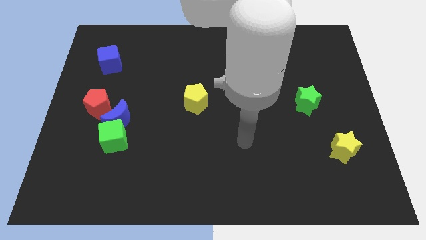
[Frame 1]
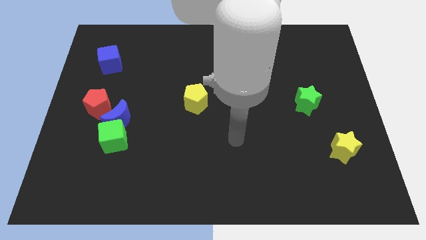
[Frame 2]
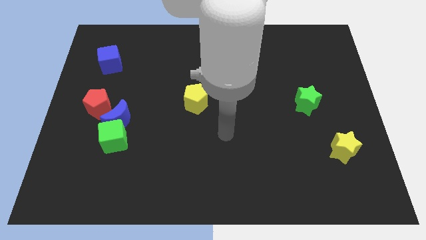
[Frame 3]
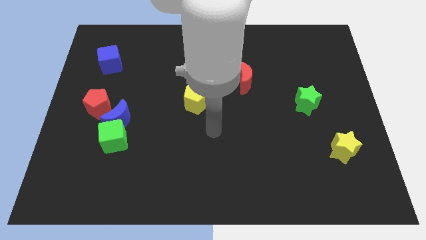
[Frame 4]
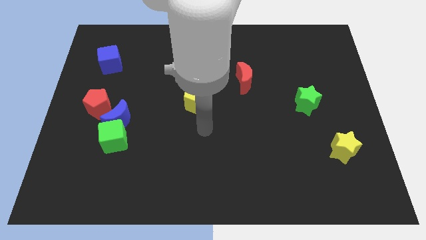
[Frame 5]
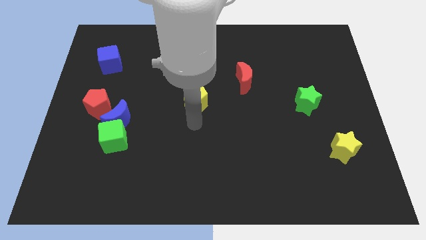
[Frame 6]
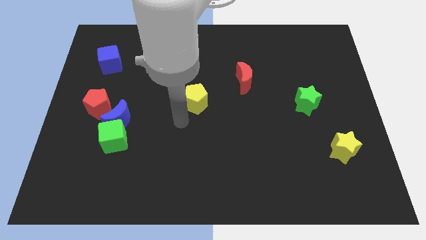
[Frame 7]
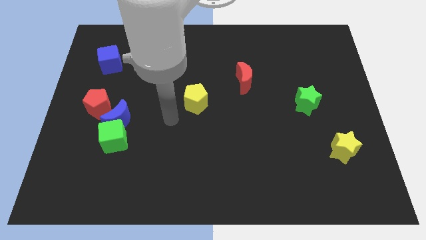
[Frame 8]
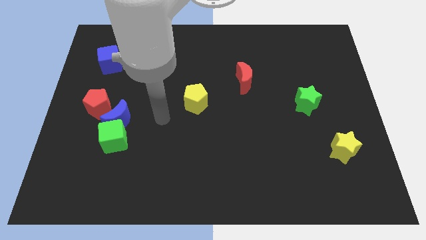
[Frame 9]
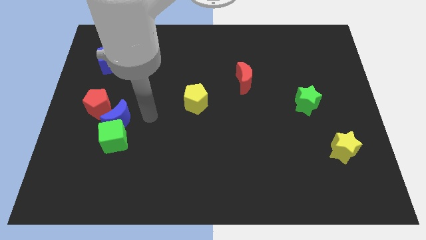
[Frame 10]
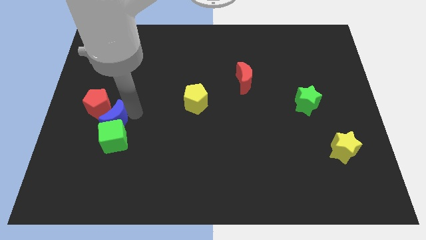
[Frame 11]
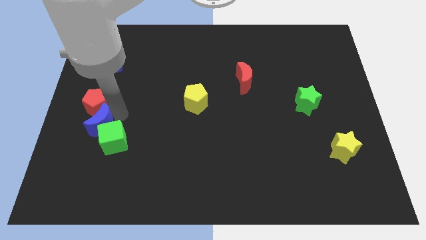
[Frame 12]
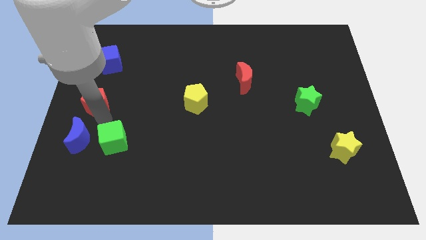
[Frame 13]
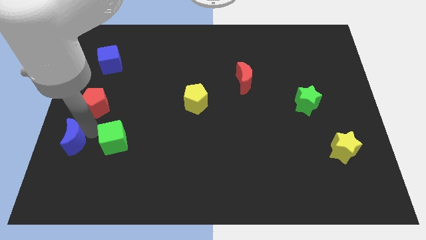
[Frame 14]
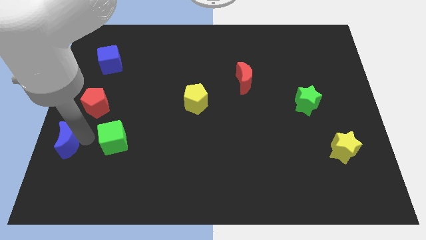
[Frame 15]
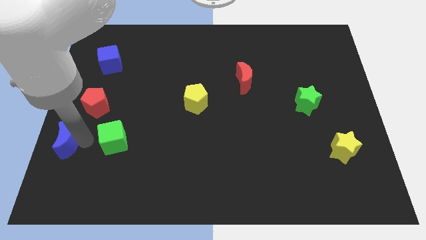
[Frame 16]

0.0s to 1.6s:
pull the green cube apart from the blue moon

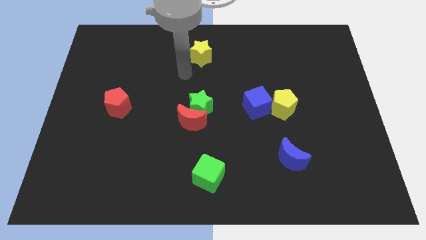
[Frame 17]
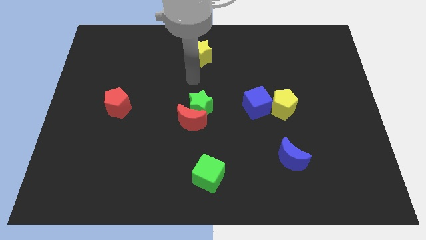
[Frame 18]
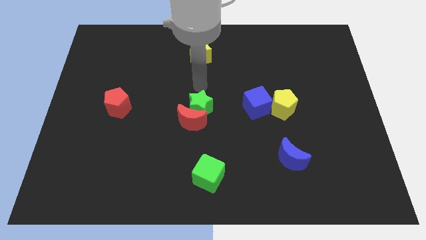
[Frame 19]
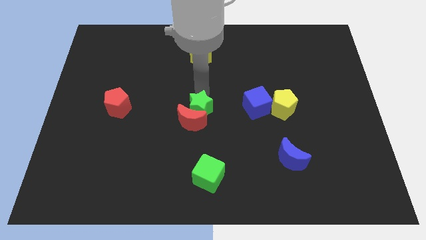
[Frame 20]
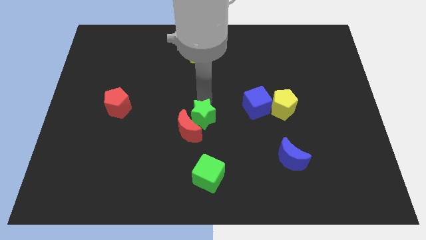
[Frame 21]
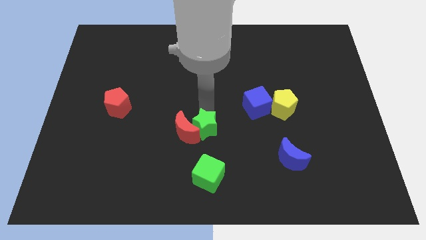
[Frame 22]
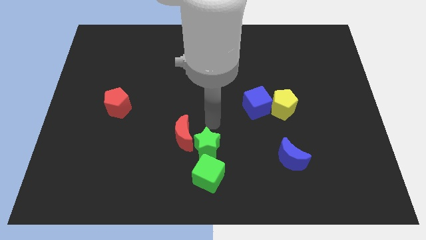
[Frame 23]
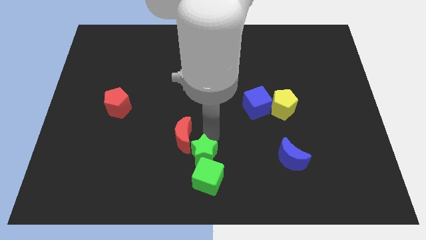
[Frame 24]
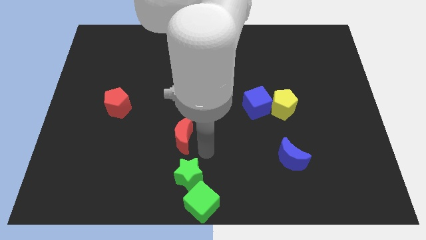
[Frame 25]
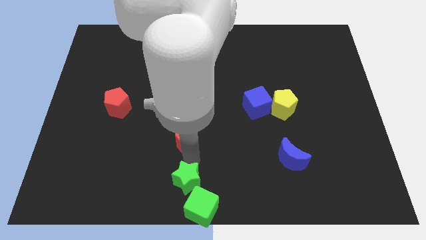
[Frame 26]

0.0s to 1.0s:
separate the red moon from the green star

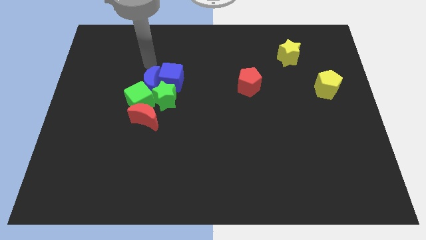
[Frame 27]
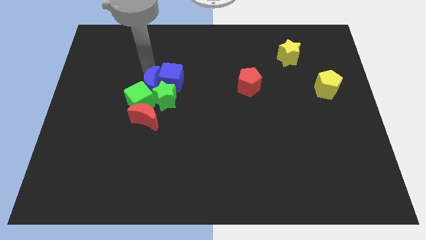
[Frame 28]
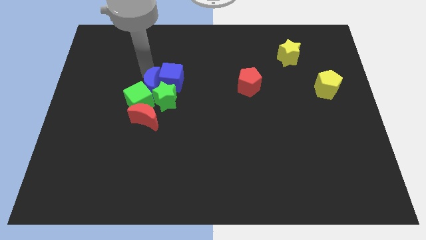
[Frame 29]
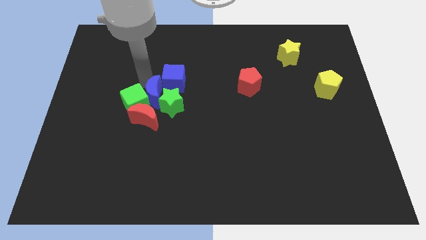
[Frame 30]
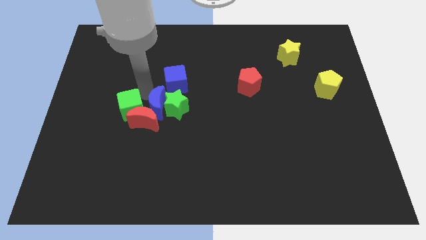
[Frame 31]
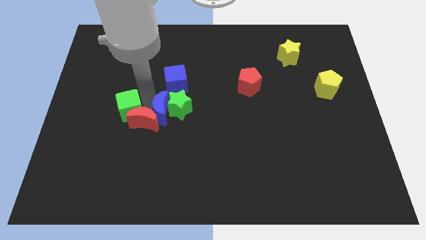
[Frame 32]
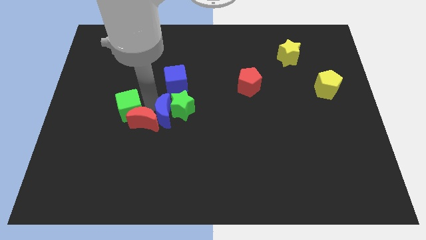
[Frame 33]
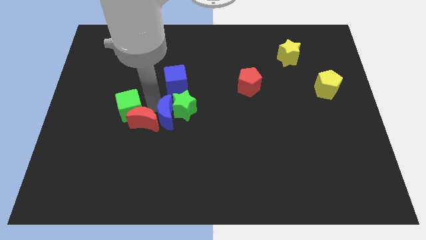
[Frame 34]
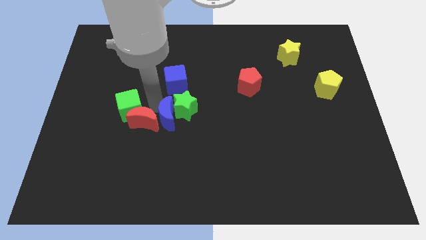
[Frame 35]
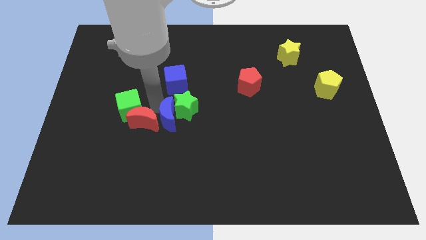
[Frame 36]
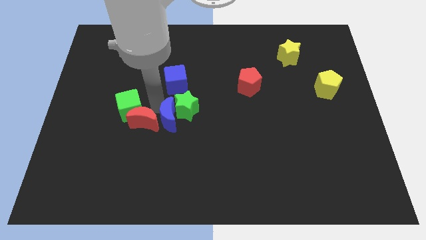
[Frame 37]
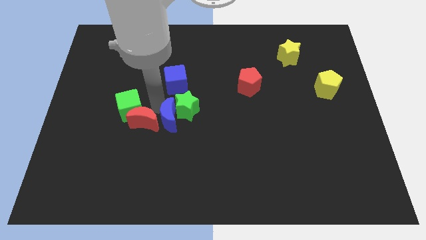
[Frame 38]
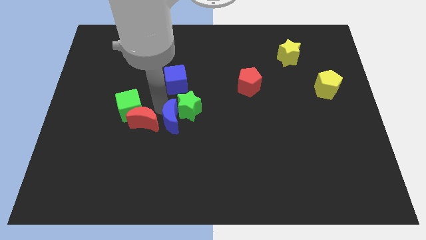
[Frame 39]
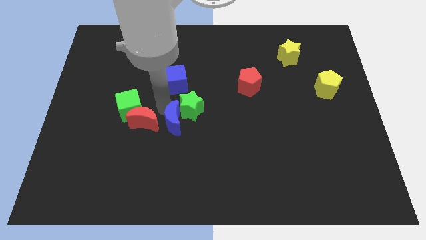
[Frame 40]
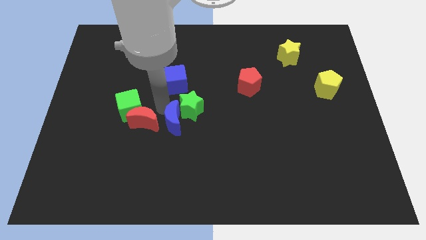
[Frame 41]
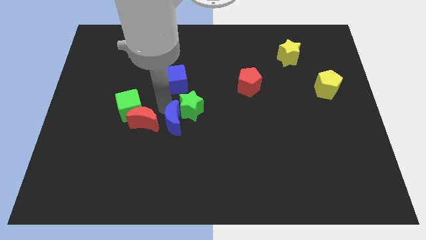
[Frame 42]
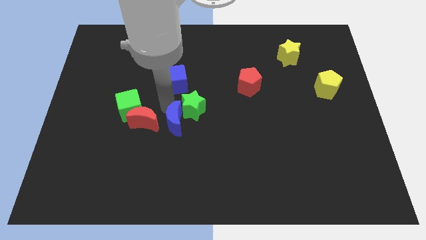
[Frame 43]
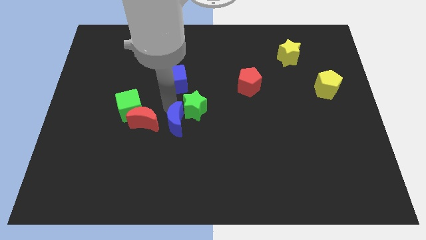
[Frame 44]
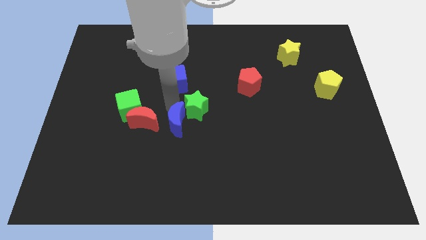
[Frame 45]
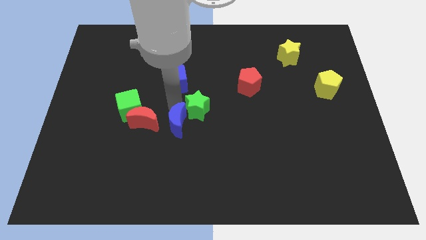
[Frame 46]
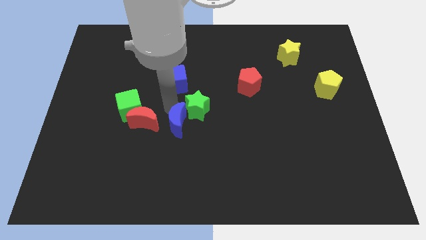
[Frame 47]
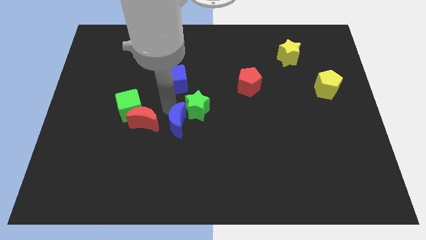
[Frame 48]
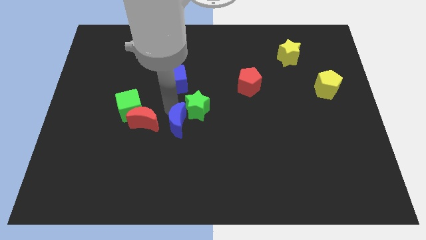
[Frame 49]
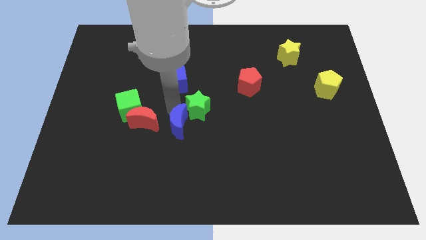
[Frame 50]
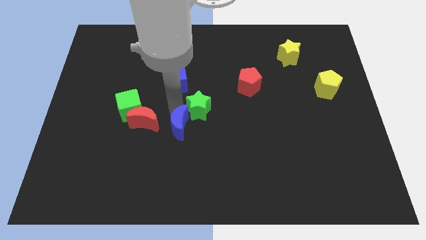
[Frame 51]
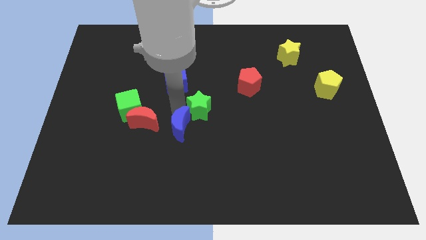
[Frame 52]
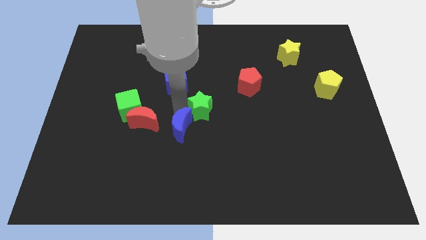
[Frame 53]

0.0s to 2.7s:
separate the green star from the clump

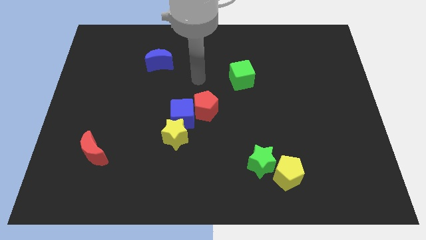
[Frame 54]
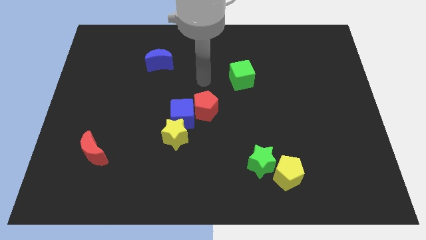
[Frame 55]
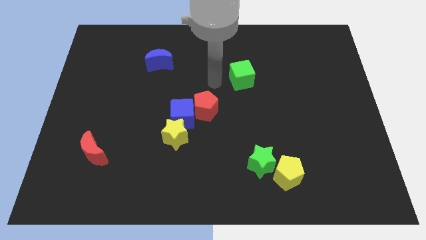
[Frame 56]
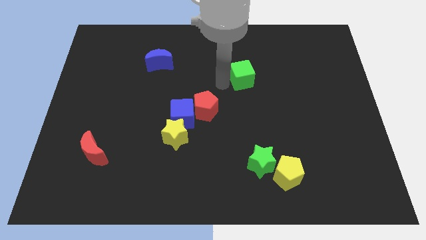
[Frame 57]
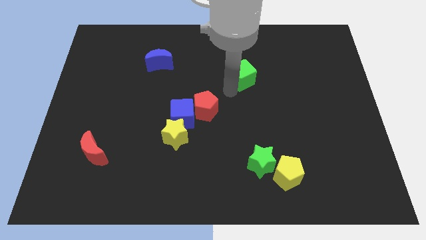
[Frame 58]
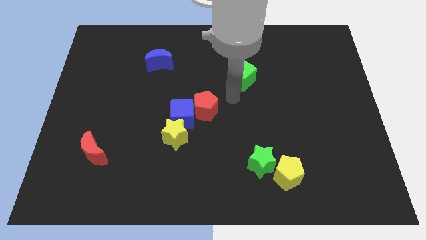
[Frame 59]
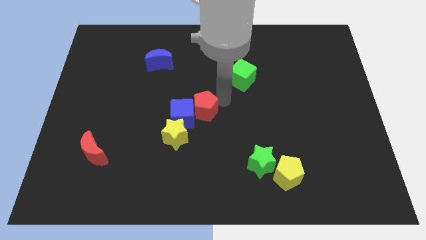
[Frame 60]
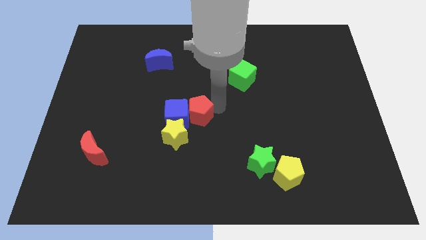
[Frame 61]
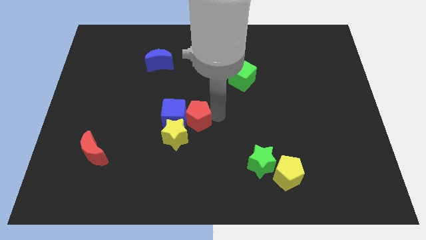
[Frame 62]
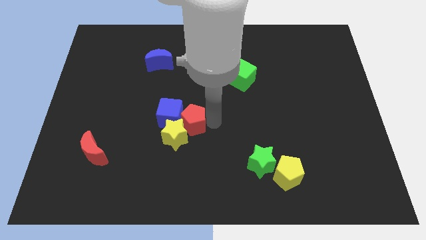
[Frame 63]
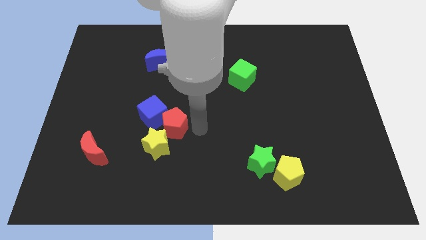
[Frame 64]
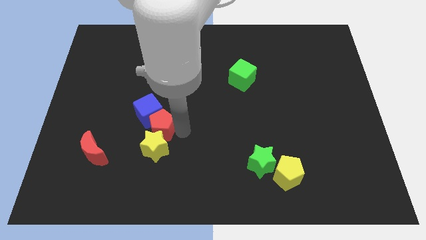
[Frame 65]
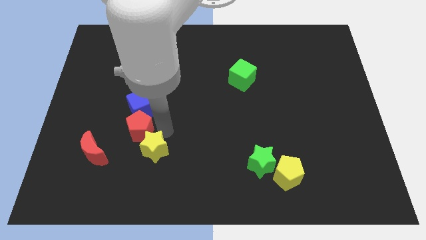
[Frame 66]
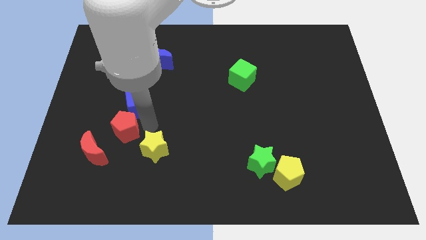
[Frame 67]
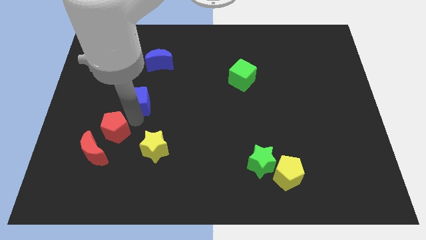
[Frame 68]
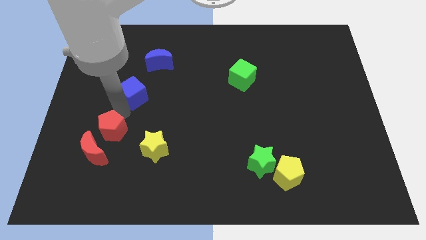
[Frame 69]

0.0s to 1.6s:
separate the blue cube from the yellow star and red pentagon

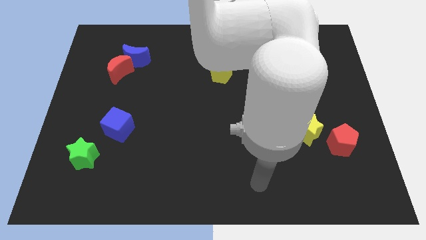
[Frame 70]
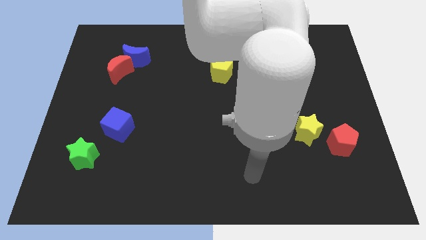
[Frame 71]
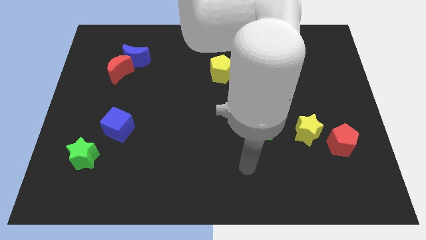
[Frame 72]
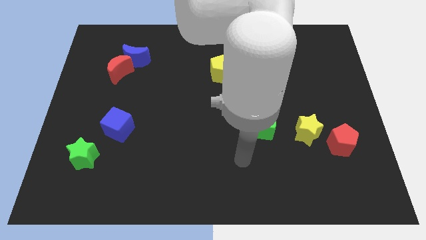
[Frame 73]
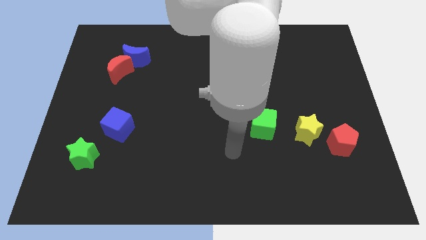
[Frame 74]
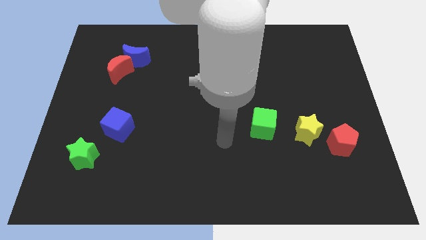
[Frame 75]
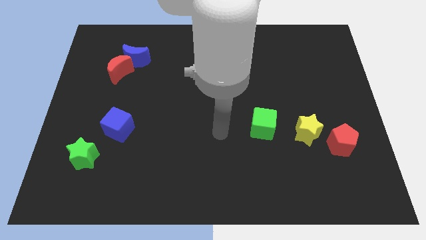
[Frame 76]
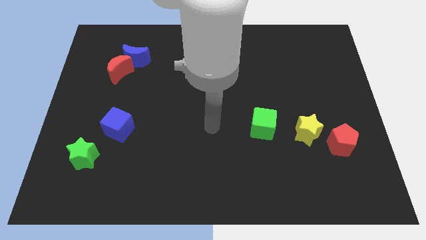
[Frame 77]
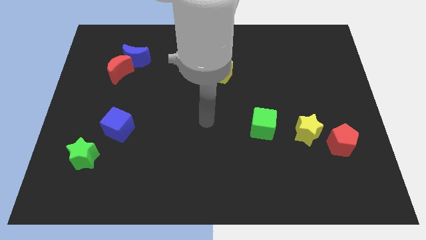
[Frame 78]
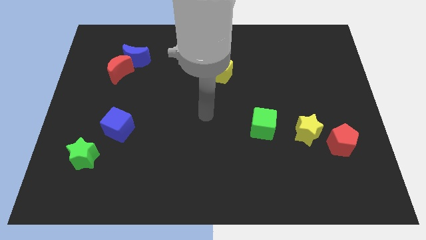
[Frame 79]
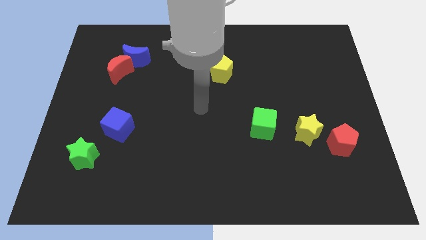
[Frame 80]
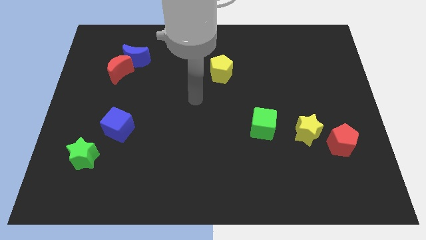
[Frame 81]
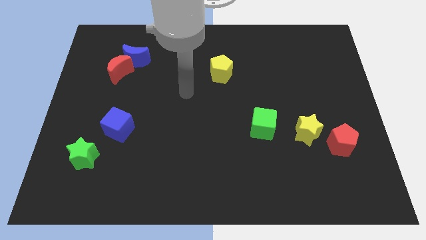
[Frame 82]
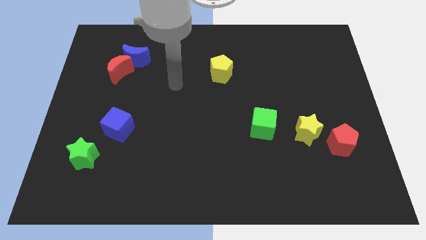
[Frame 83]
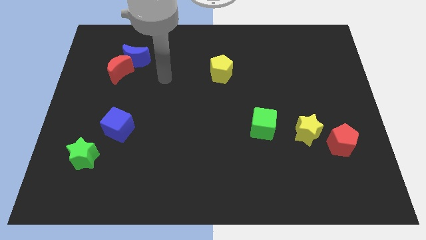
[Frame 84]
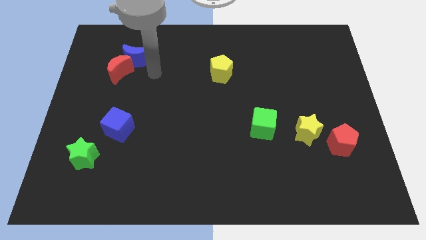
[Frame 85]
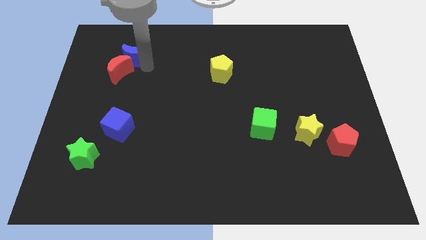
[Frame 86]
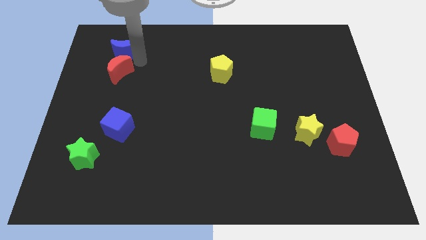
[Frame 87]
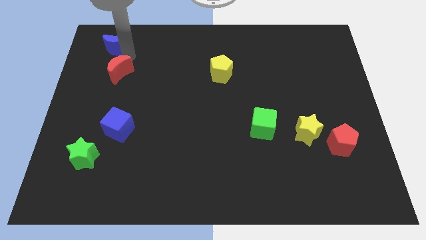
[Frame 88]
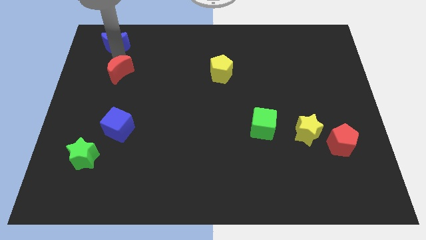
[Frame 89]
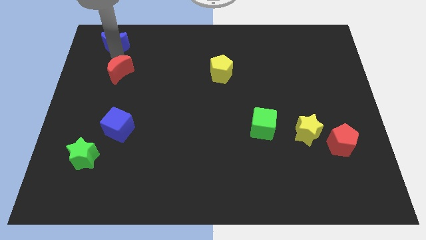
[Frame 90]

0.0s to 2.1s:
move the red moon away from the blue moon

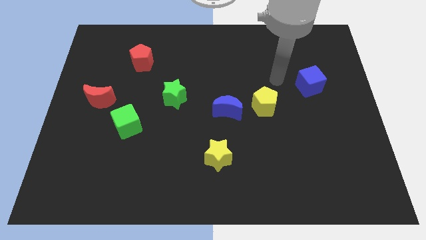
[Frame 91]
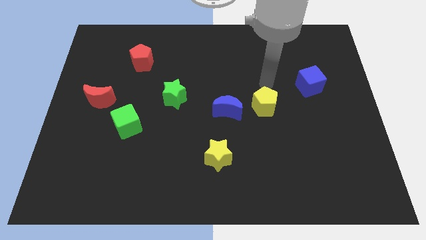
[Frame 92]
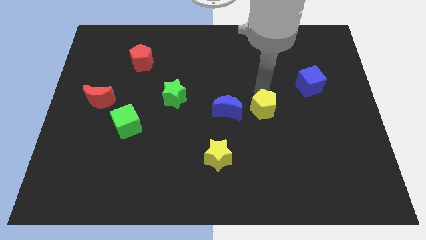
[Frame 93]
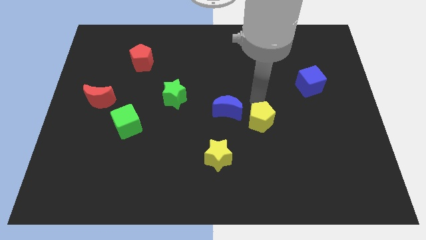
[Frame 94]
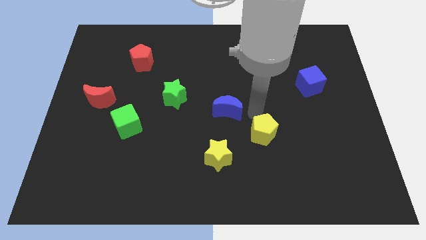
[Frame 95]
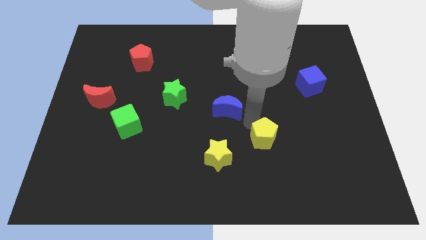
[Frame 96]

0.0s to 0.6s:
move the blue moon away from the yellow pentagon
